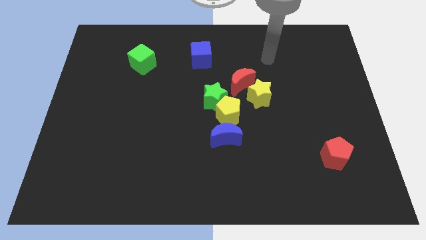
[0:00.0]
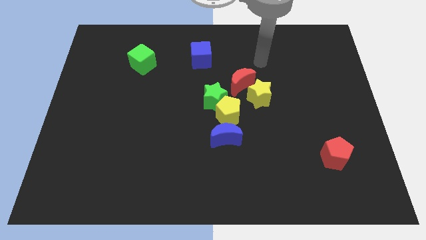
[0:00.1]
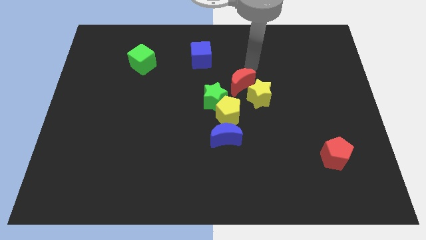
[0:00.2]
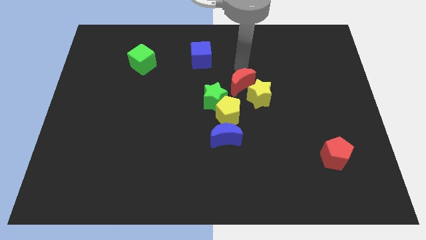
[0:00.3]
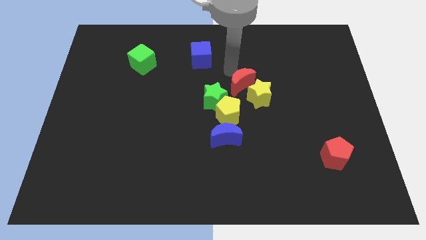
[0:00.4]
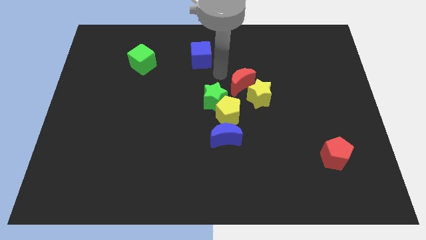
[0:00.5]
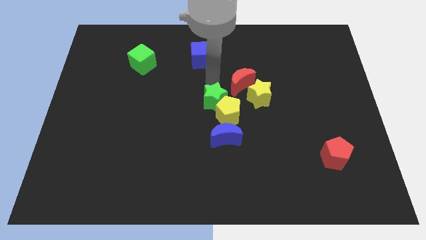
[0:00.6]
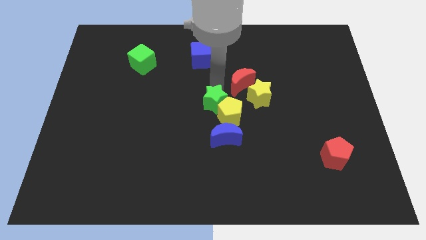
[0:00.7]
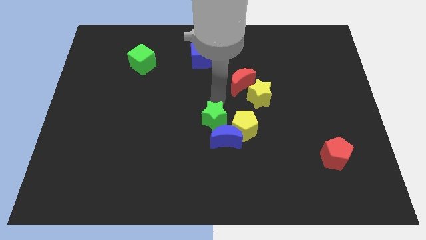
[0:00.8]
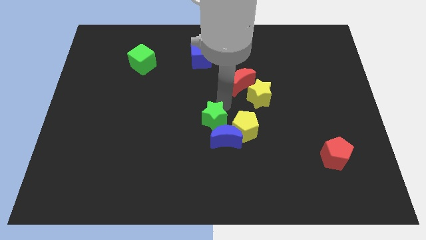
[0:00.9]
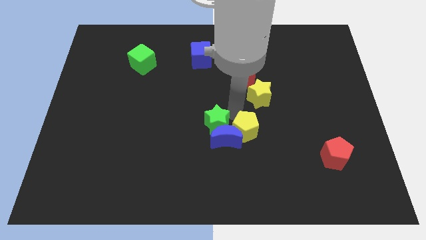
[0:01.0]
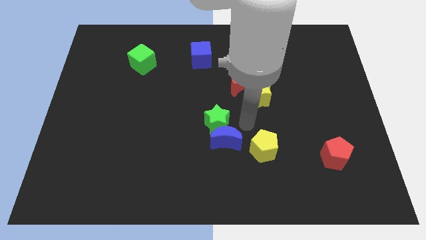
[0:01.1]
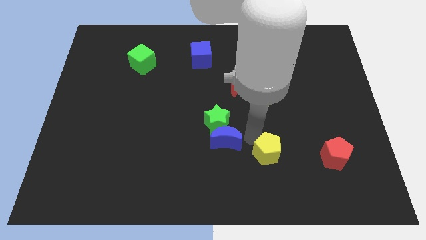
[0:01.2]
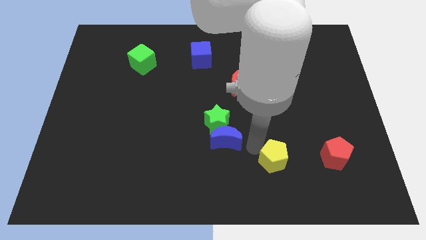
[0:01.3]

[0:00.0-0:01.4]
pull the blue moon apart from the yellow pentagon

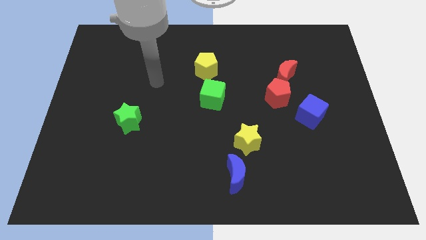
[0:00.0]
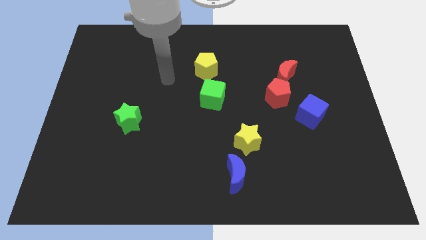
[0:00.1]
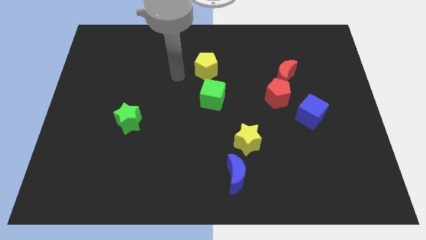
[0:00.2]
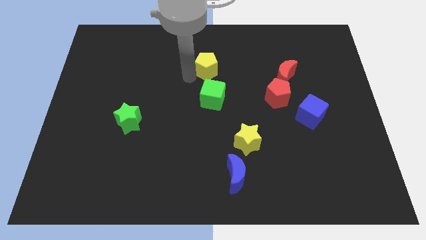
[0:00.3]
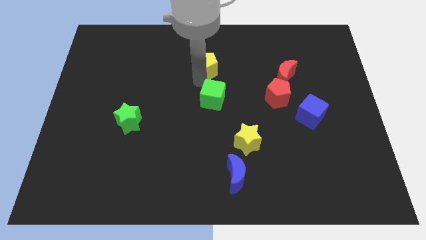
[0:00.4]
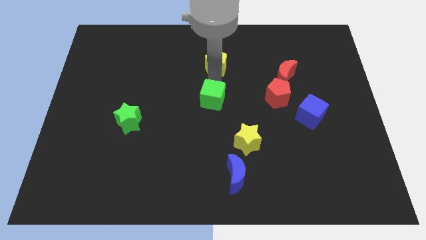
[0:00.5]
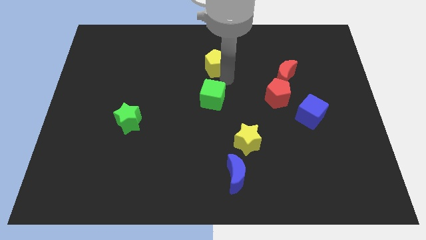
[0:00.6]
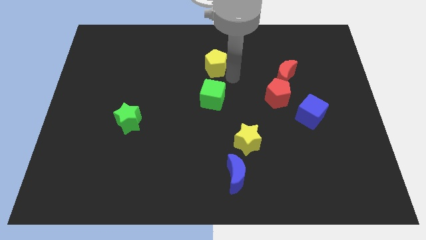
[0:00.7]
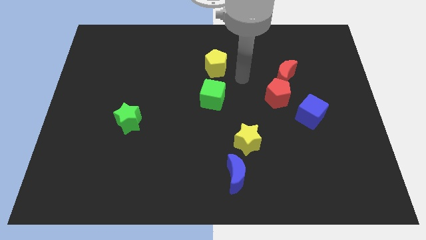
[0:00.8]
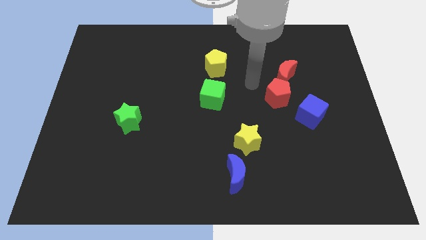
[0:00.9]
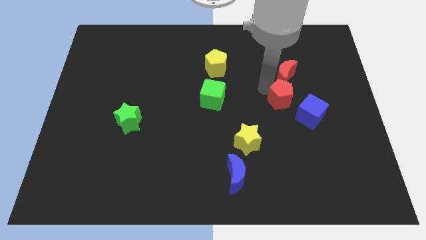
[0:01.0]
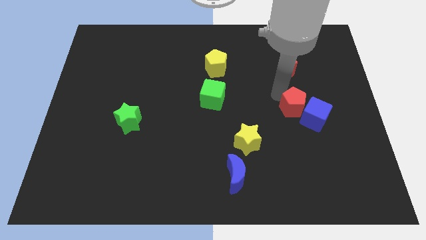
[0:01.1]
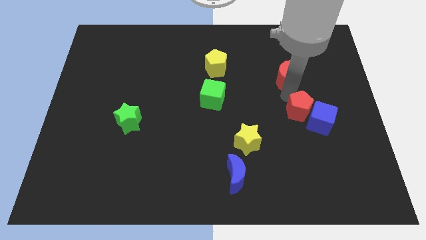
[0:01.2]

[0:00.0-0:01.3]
pull the red moon apart from the red pentagon

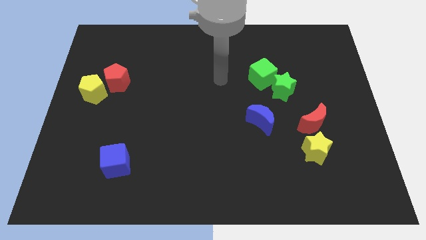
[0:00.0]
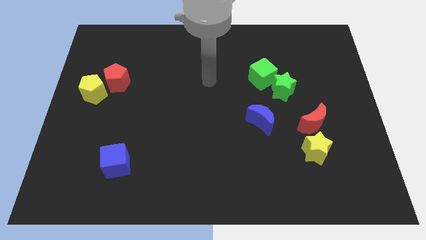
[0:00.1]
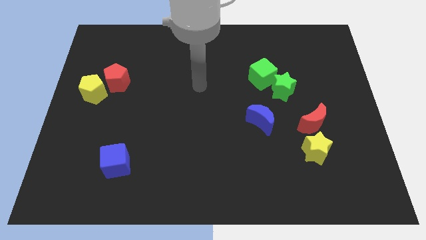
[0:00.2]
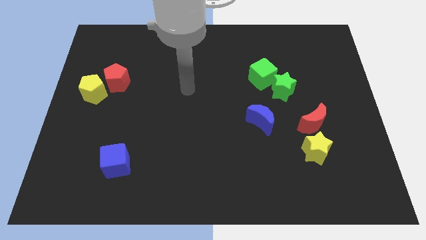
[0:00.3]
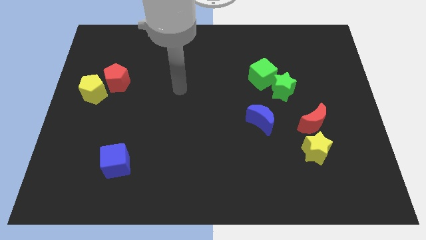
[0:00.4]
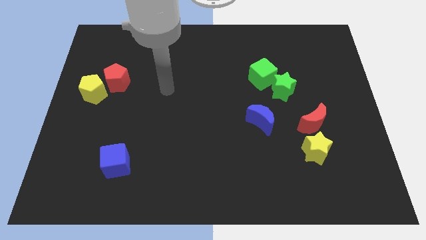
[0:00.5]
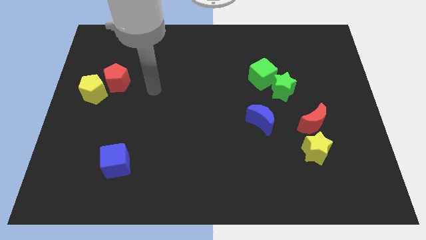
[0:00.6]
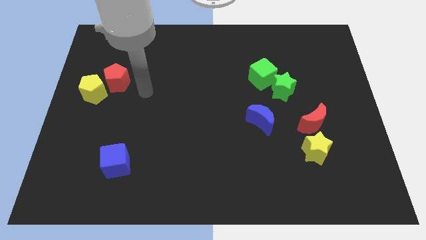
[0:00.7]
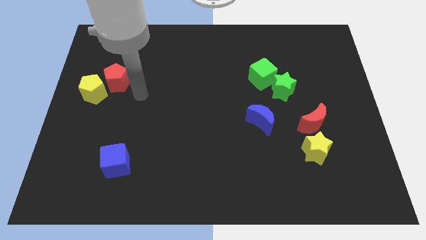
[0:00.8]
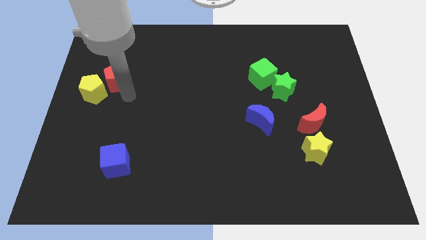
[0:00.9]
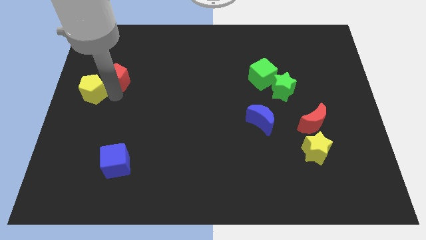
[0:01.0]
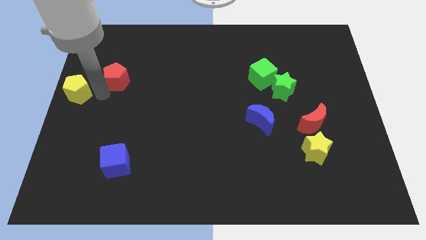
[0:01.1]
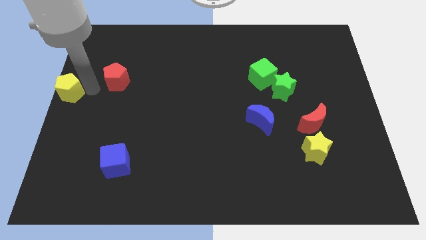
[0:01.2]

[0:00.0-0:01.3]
pull the red pentagon apart from the yellow pentagon

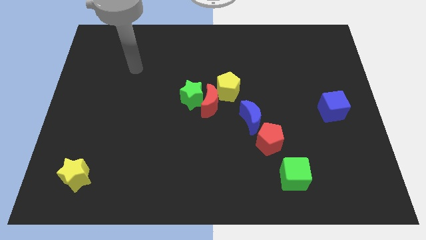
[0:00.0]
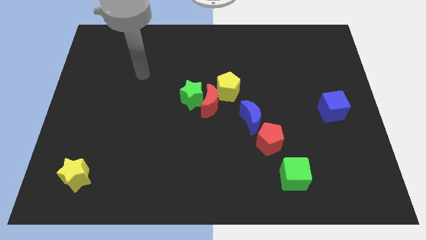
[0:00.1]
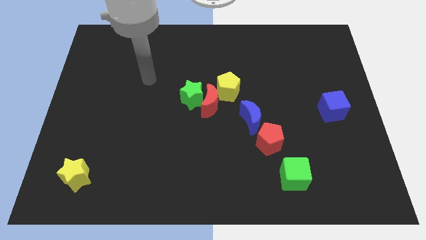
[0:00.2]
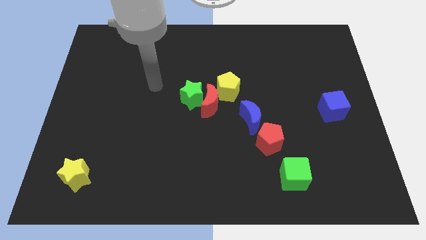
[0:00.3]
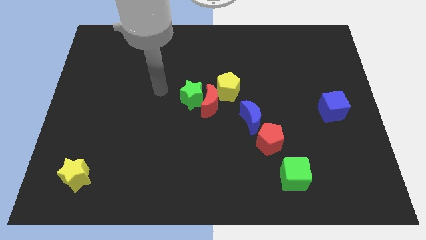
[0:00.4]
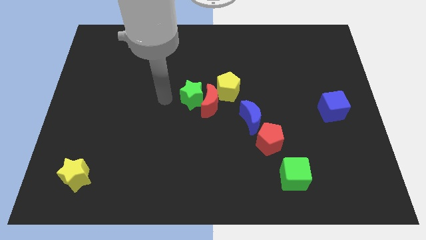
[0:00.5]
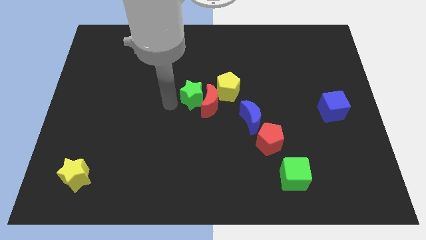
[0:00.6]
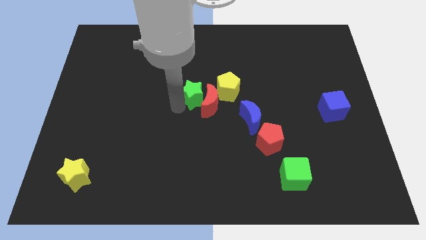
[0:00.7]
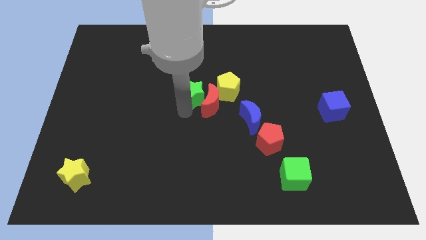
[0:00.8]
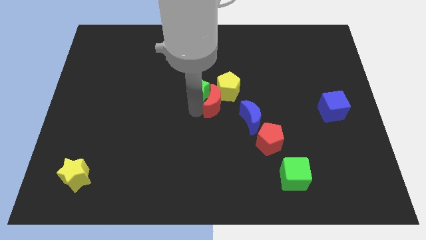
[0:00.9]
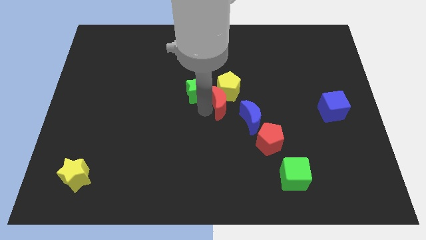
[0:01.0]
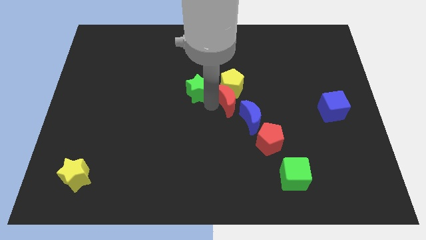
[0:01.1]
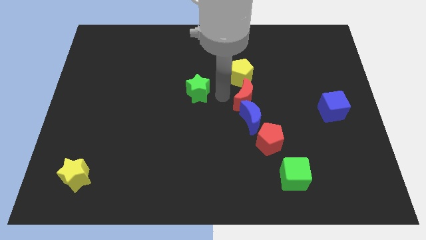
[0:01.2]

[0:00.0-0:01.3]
pull the green star apart from the red moon and yellow pentagon

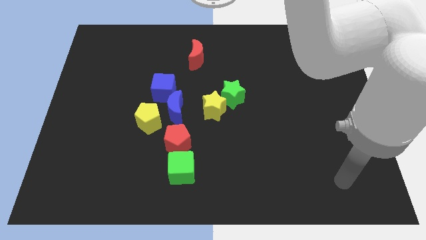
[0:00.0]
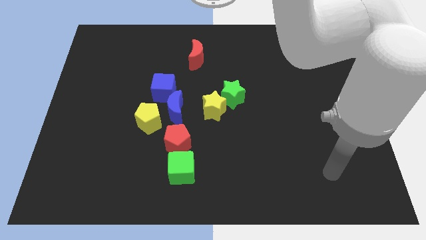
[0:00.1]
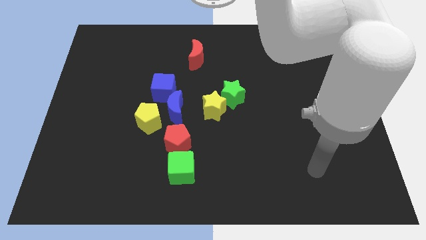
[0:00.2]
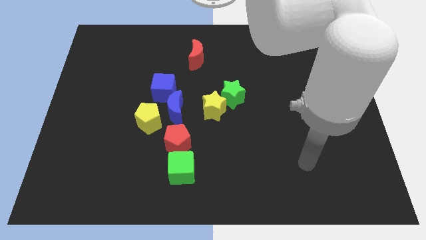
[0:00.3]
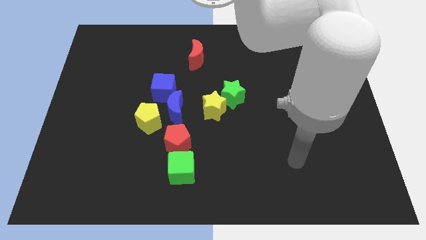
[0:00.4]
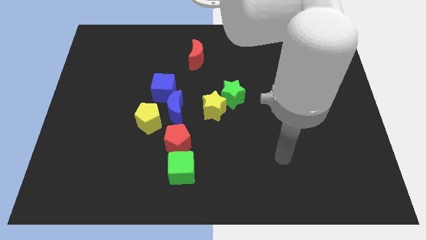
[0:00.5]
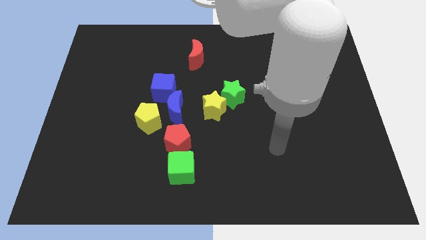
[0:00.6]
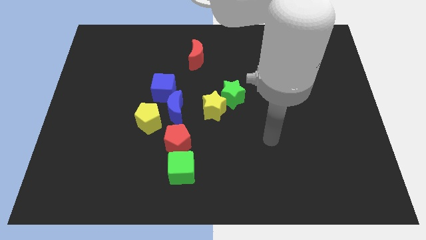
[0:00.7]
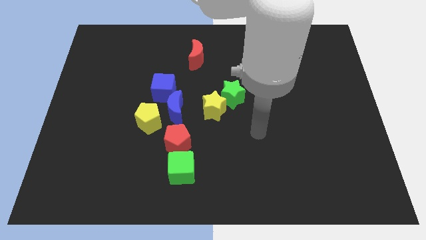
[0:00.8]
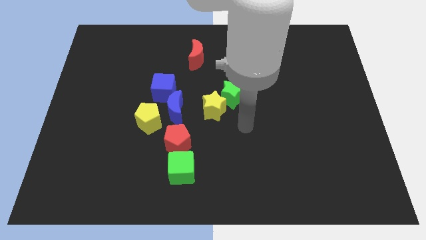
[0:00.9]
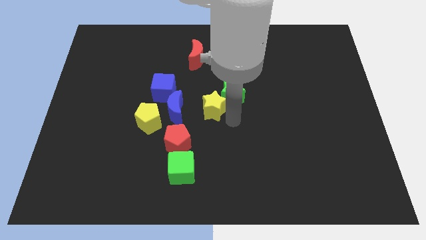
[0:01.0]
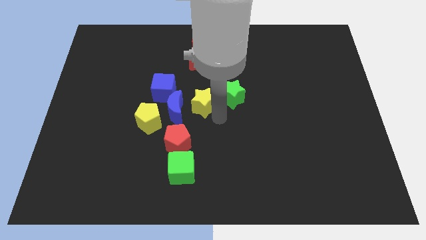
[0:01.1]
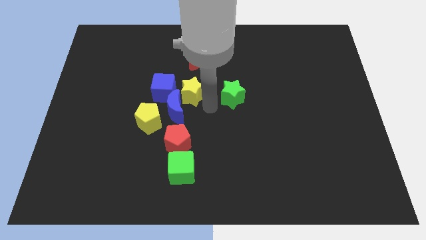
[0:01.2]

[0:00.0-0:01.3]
move the green star away from the yellow star

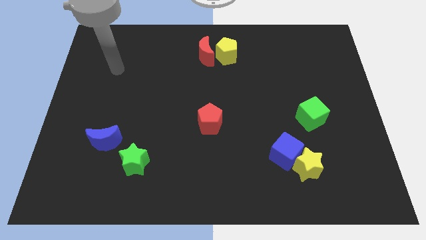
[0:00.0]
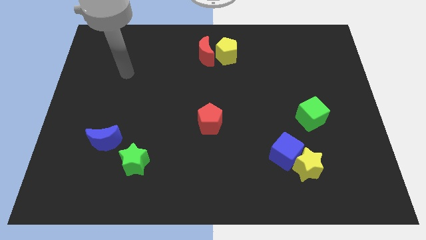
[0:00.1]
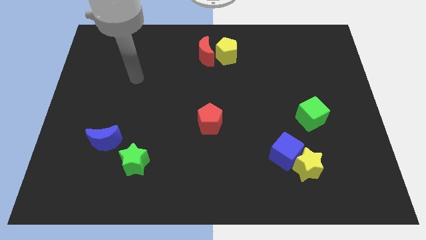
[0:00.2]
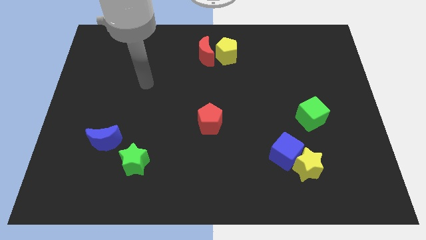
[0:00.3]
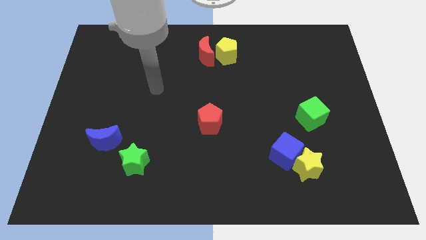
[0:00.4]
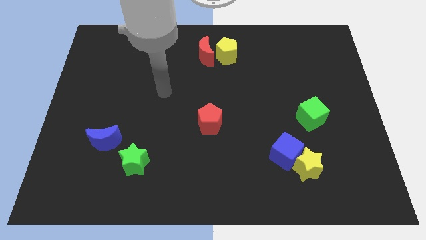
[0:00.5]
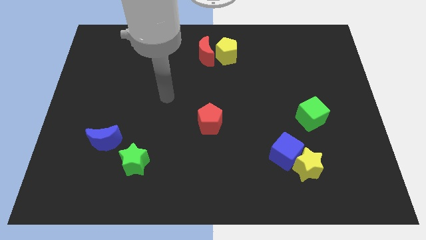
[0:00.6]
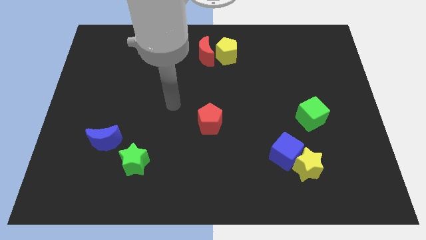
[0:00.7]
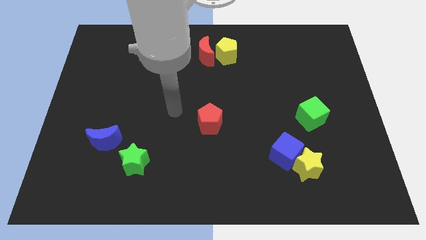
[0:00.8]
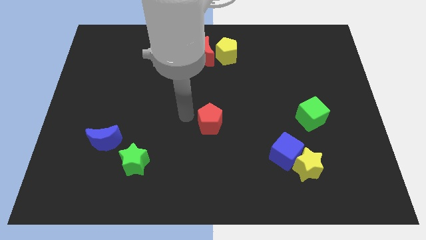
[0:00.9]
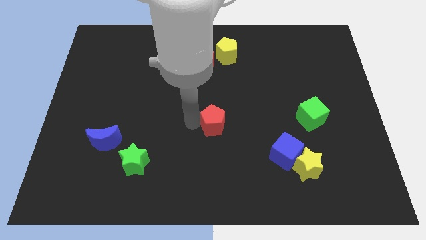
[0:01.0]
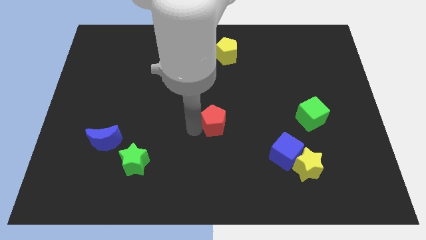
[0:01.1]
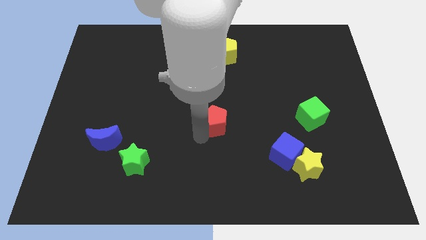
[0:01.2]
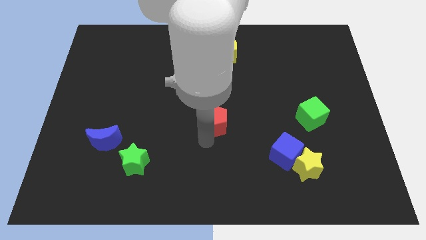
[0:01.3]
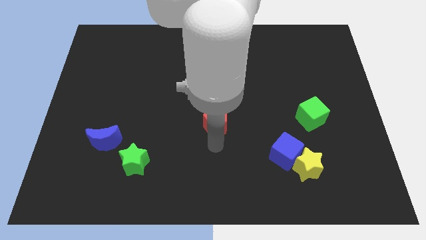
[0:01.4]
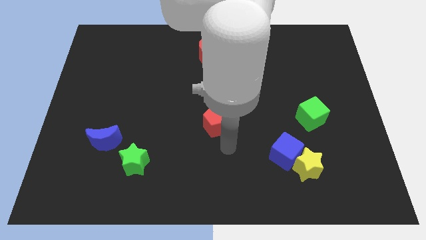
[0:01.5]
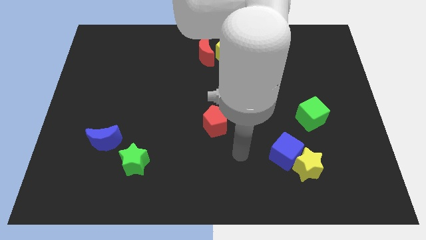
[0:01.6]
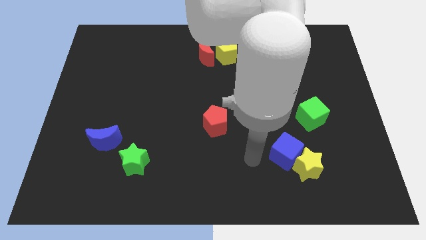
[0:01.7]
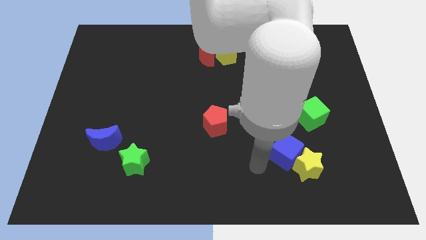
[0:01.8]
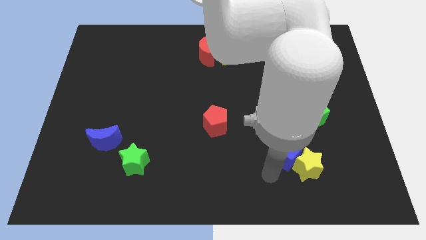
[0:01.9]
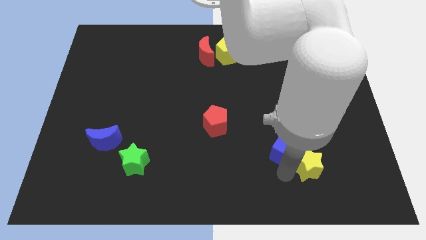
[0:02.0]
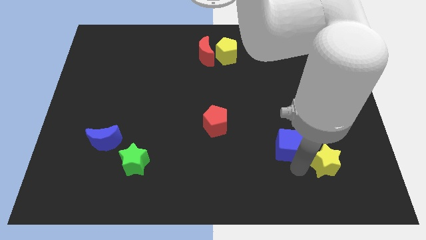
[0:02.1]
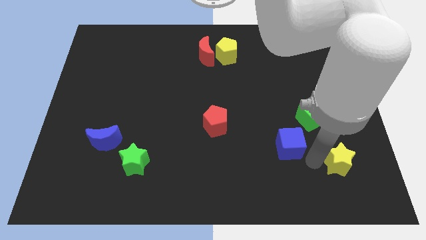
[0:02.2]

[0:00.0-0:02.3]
separate the blue cube from the yellow star

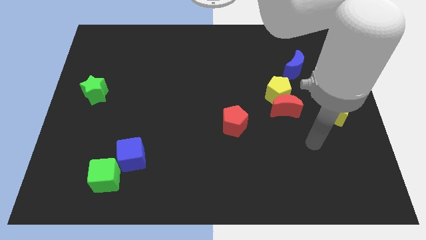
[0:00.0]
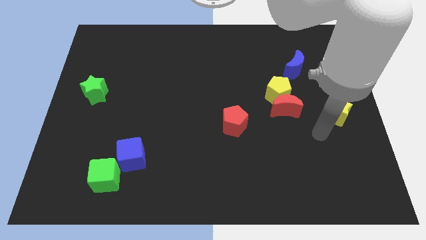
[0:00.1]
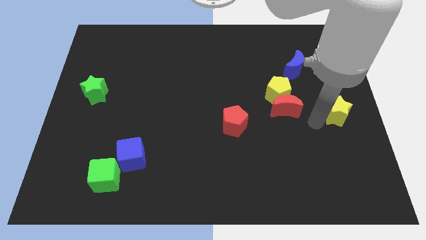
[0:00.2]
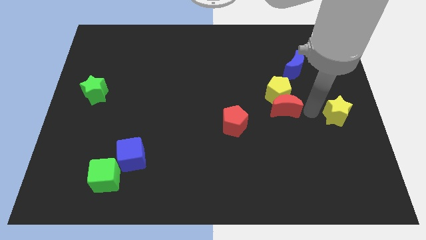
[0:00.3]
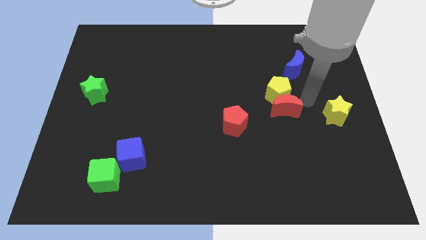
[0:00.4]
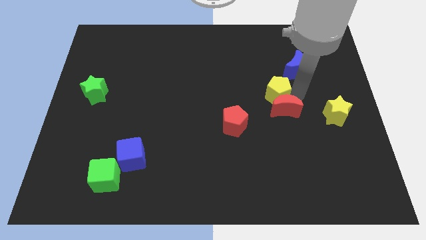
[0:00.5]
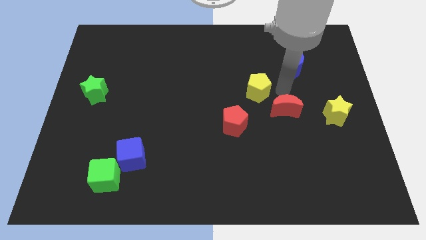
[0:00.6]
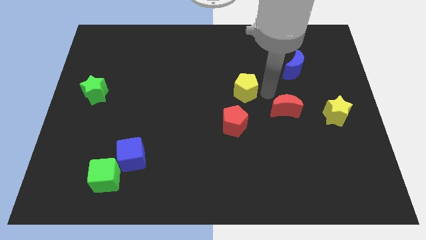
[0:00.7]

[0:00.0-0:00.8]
separate the red moon from the yellow pentagon
